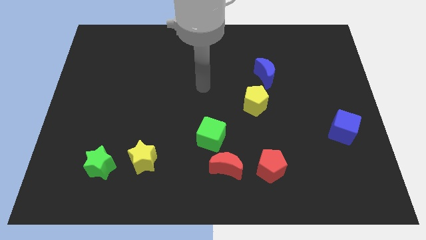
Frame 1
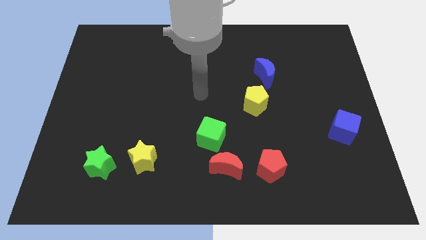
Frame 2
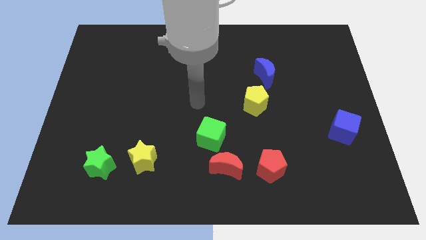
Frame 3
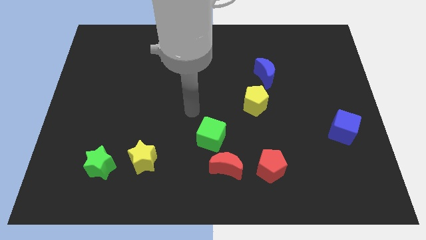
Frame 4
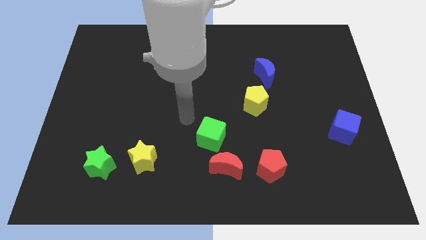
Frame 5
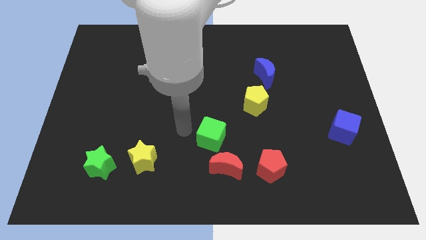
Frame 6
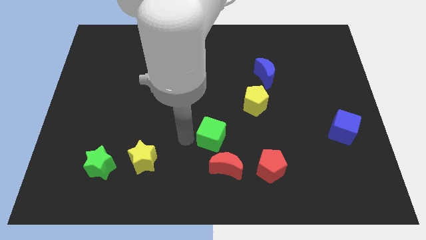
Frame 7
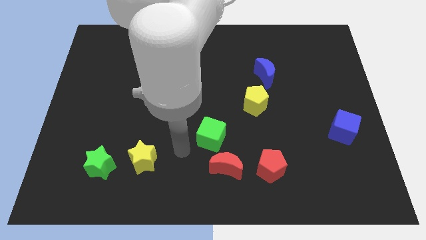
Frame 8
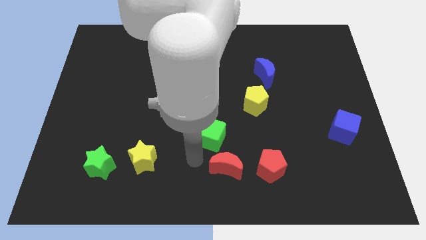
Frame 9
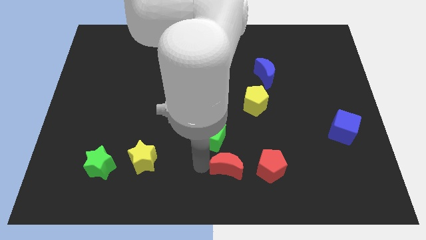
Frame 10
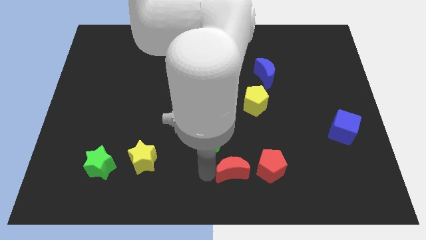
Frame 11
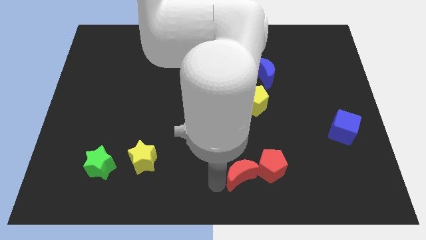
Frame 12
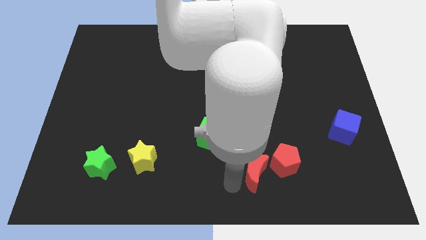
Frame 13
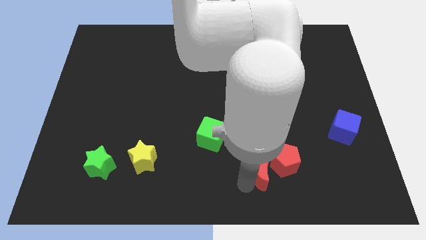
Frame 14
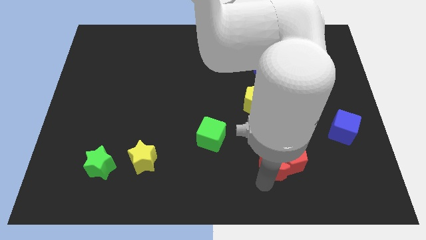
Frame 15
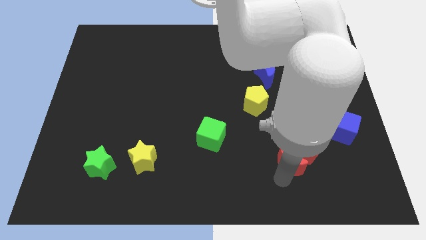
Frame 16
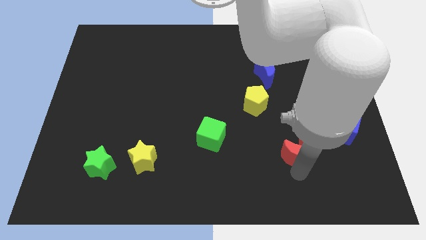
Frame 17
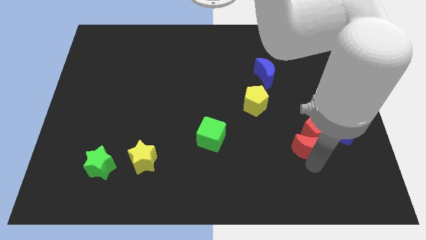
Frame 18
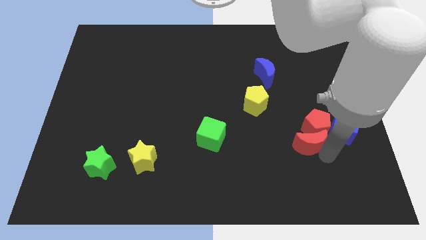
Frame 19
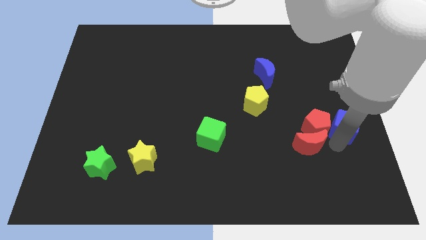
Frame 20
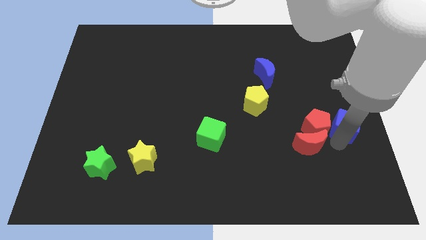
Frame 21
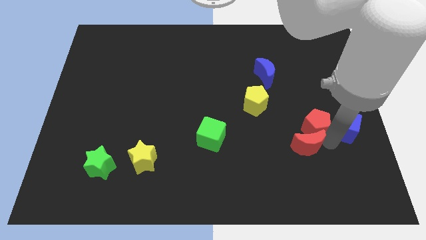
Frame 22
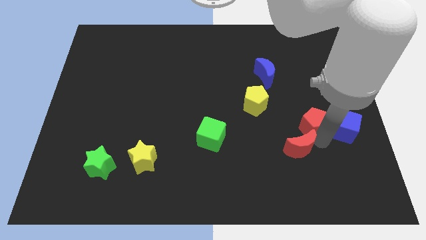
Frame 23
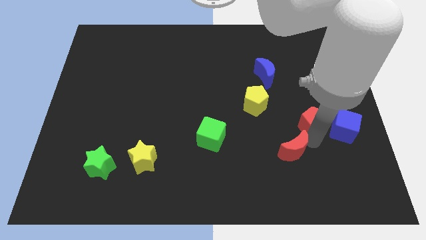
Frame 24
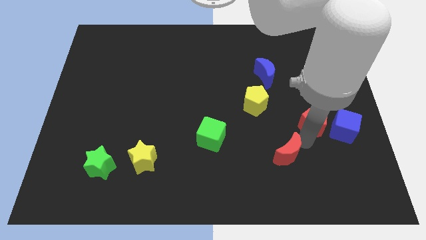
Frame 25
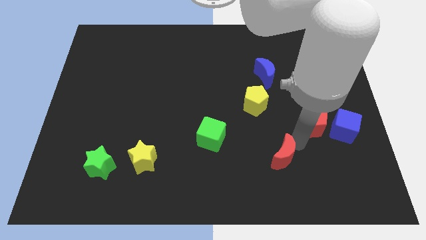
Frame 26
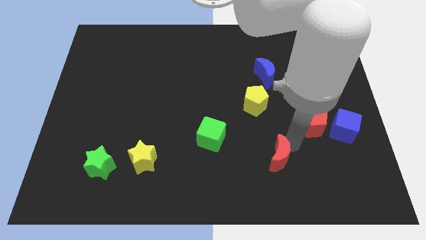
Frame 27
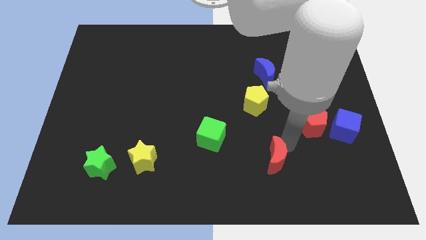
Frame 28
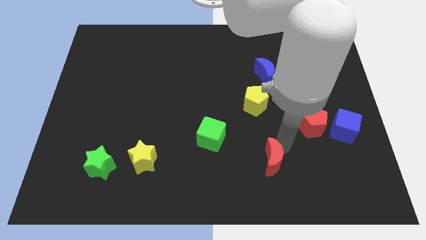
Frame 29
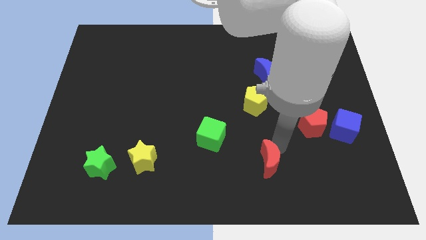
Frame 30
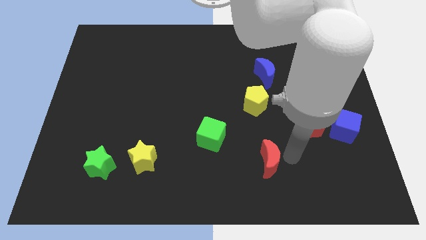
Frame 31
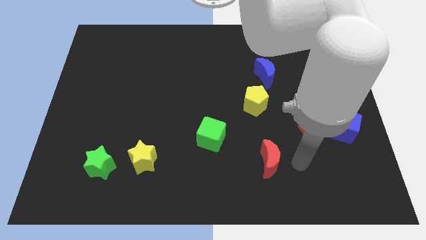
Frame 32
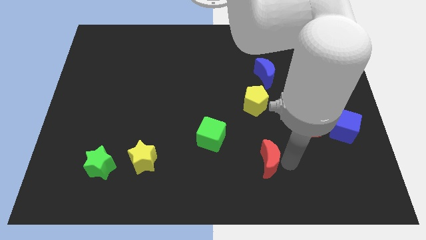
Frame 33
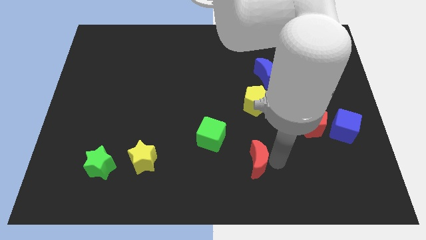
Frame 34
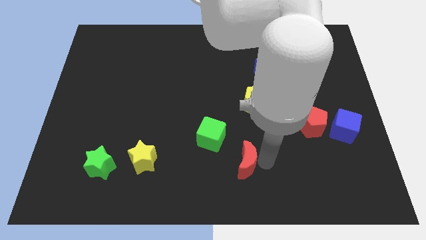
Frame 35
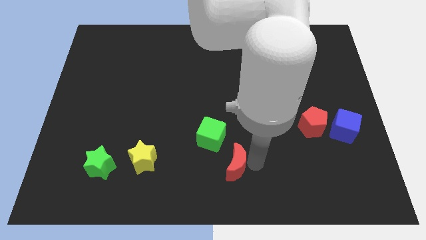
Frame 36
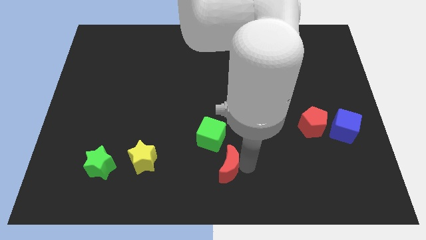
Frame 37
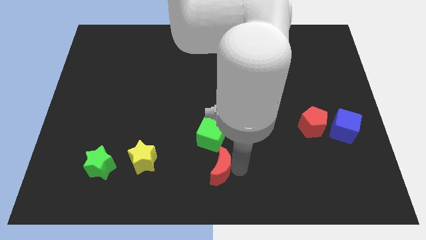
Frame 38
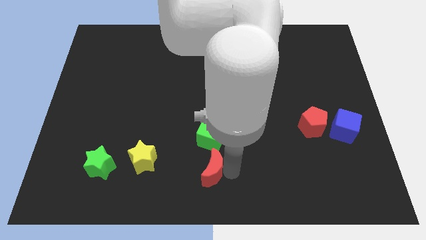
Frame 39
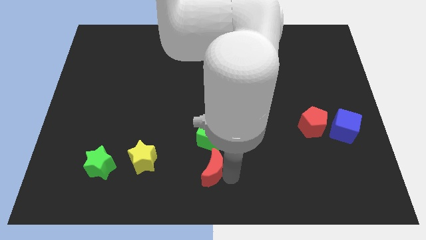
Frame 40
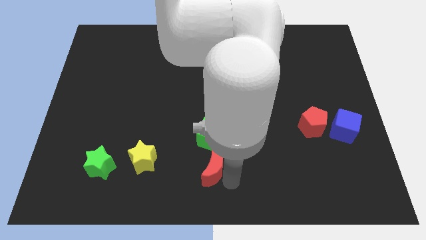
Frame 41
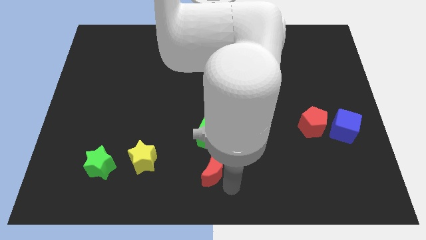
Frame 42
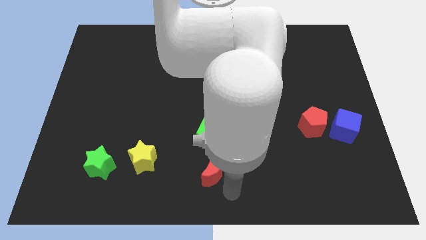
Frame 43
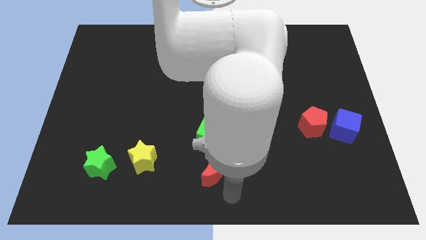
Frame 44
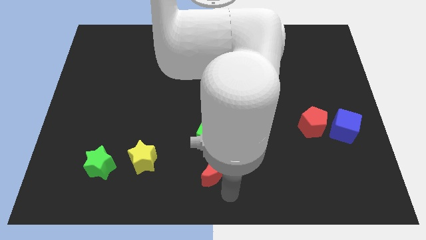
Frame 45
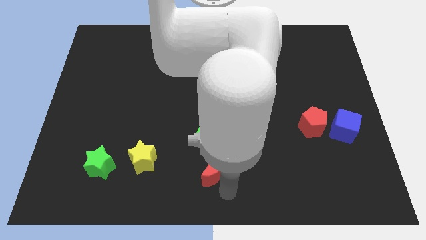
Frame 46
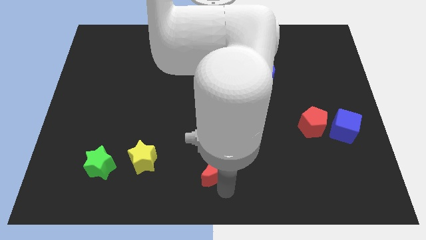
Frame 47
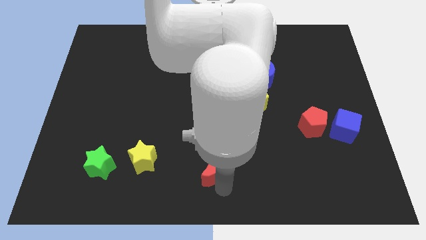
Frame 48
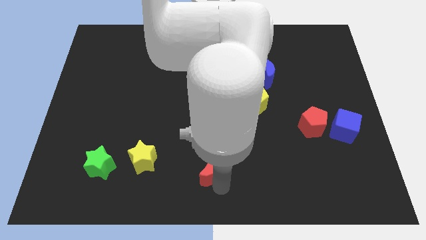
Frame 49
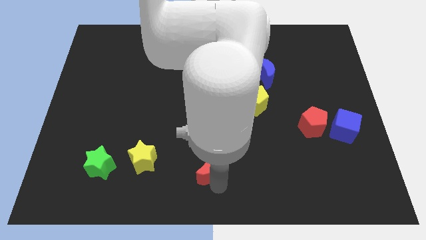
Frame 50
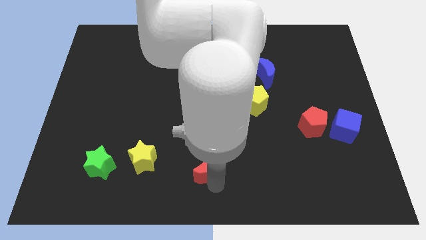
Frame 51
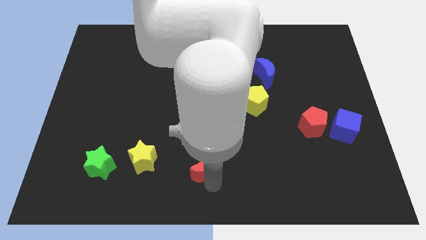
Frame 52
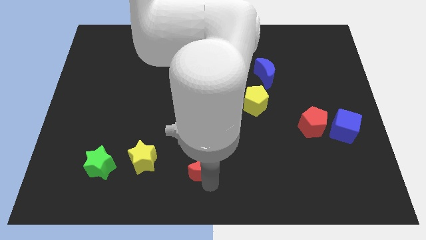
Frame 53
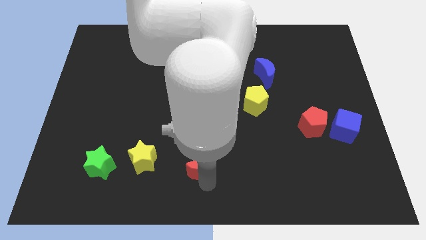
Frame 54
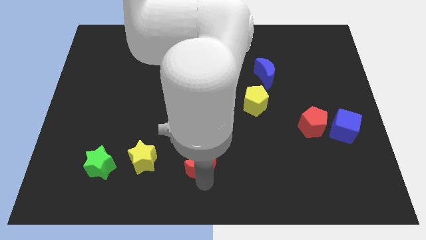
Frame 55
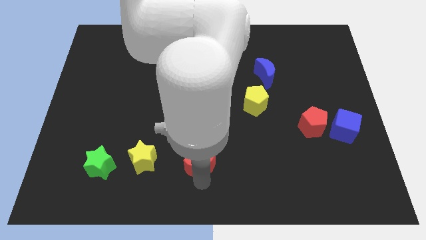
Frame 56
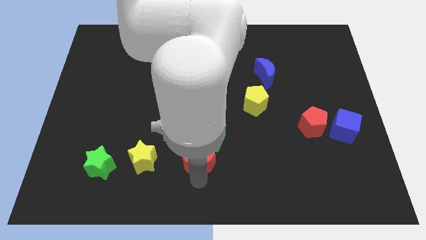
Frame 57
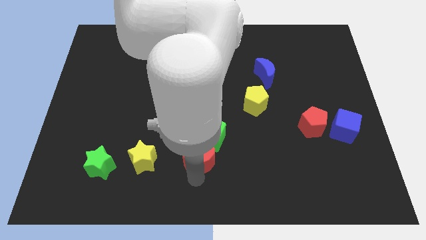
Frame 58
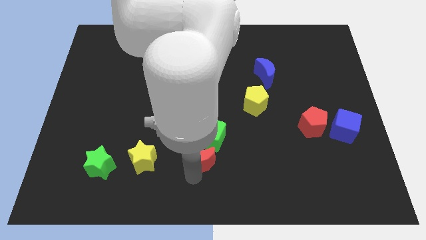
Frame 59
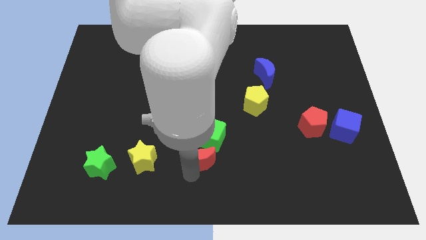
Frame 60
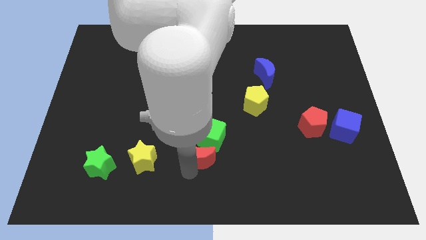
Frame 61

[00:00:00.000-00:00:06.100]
push the red moon close to the green cube

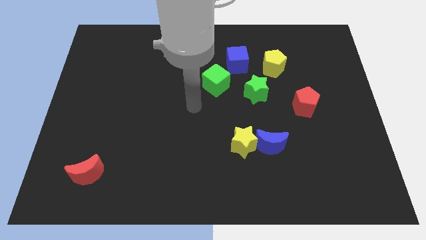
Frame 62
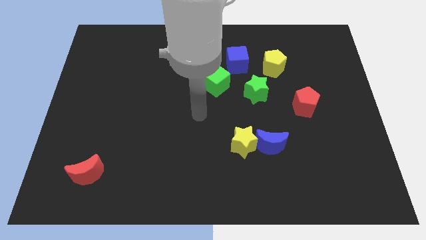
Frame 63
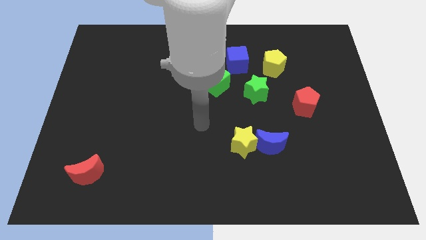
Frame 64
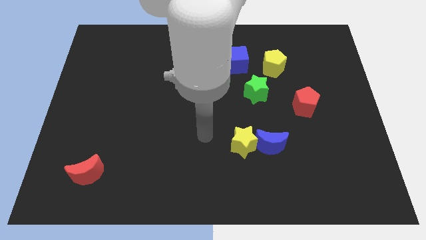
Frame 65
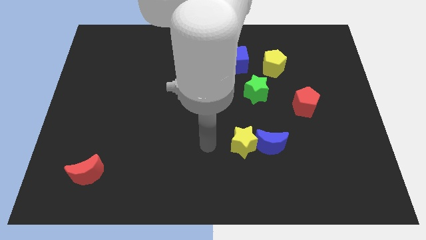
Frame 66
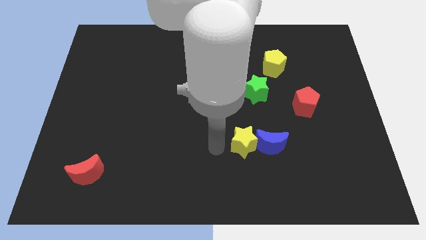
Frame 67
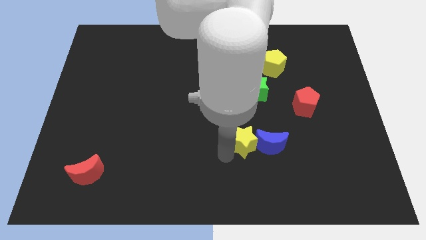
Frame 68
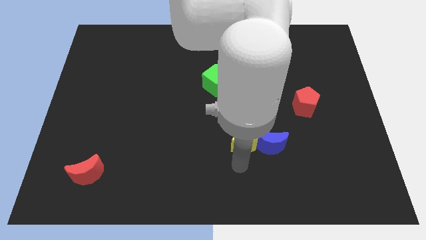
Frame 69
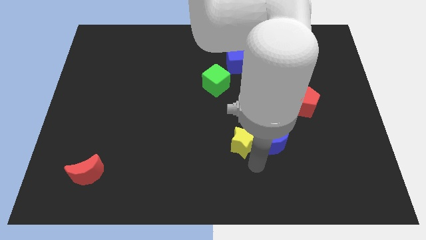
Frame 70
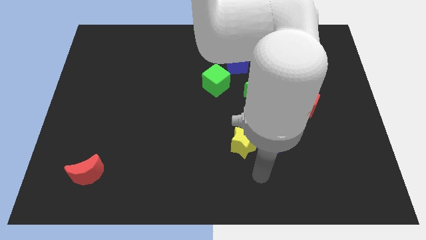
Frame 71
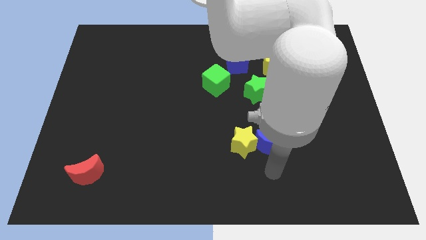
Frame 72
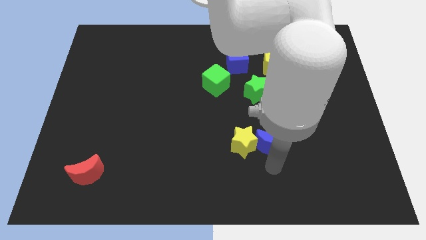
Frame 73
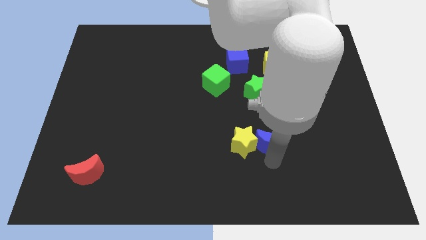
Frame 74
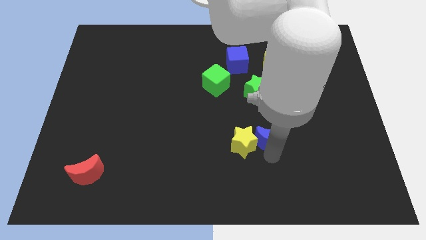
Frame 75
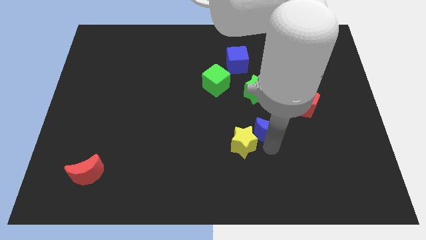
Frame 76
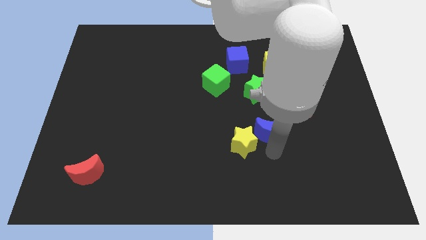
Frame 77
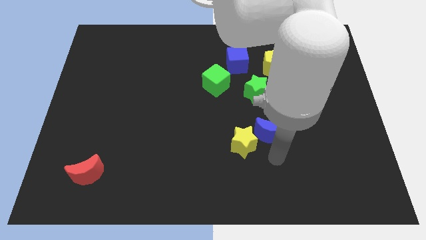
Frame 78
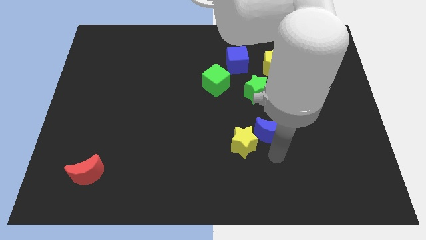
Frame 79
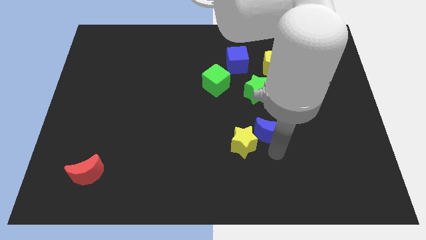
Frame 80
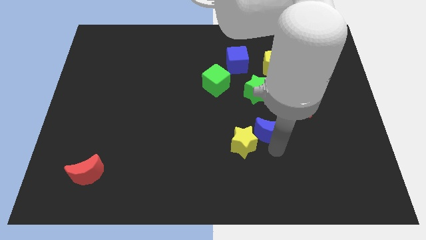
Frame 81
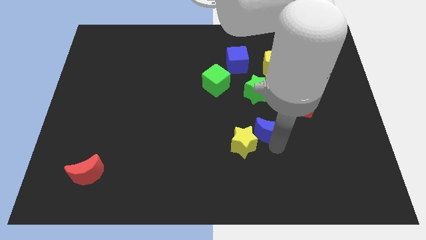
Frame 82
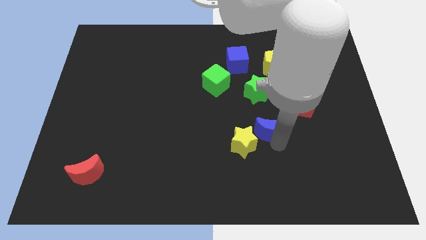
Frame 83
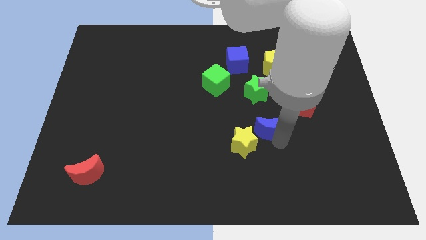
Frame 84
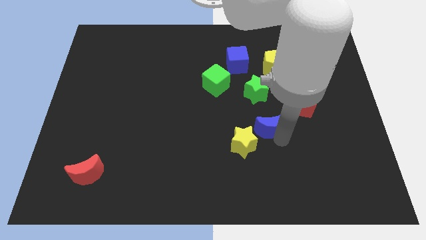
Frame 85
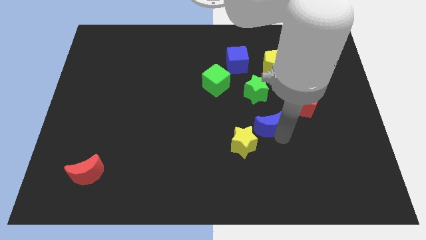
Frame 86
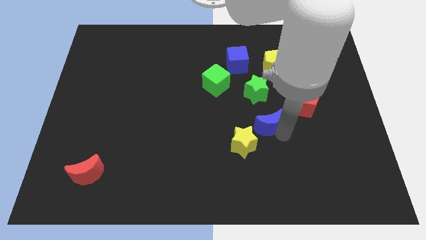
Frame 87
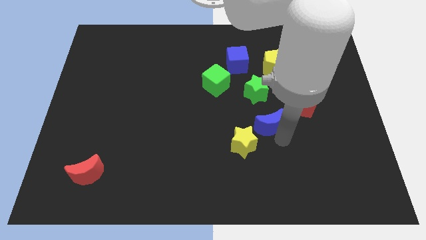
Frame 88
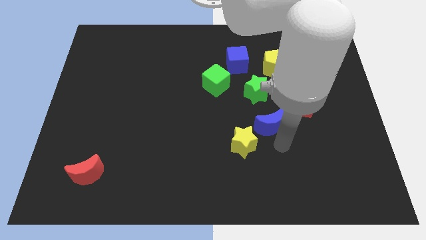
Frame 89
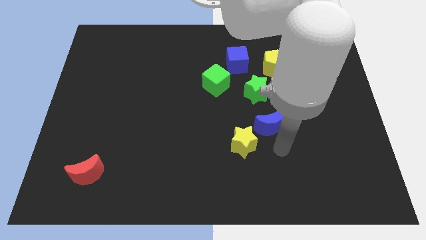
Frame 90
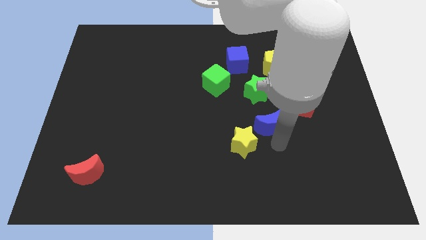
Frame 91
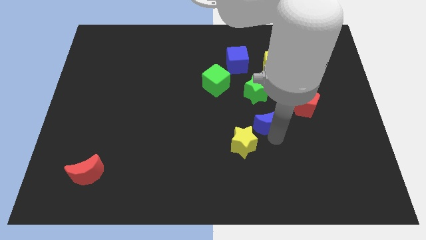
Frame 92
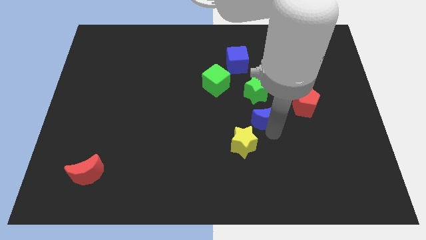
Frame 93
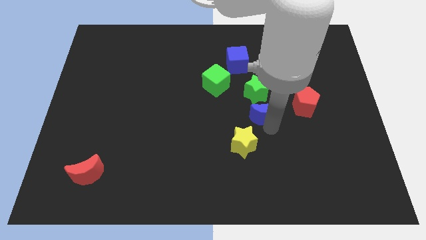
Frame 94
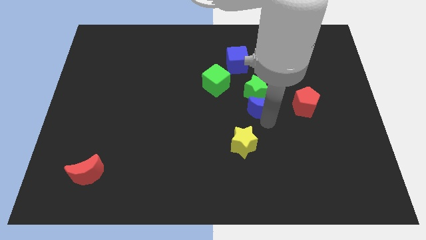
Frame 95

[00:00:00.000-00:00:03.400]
put the blue moon towards the green star
